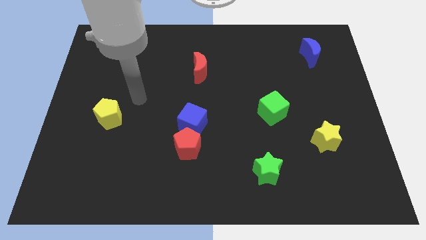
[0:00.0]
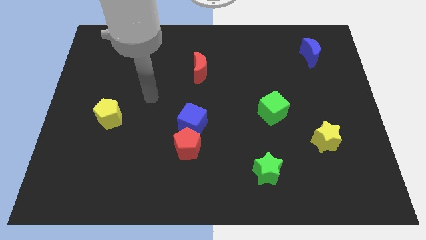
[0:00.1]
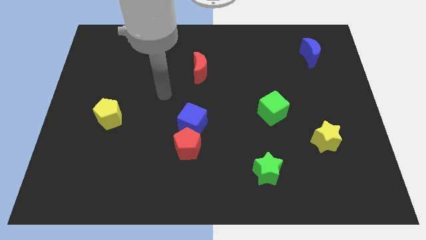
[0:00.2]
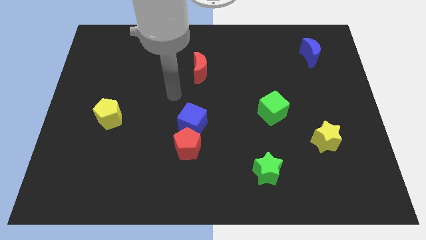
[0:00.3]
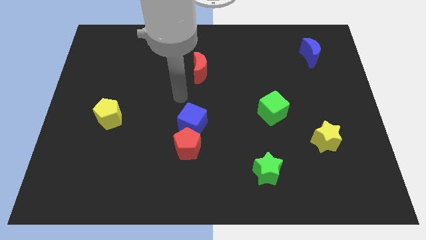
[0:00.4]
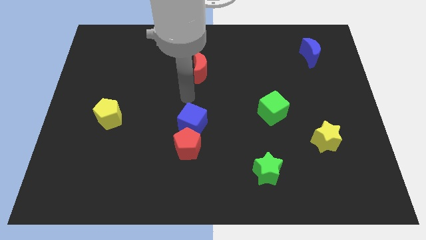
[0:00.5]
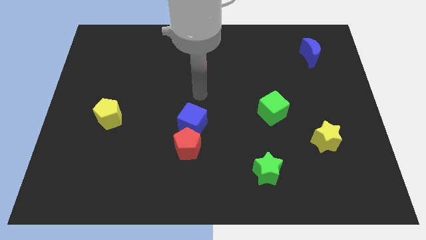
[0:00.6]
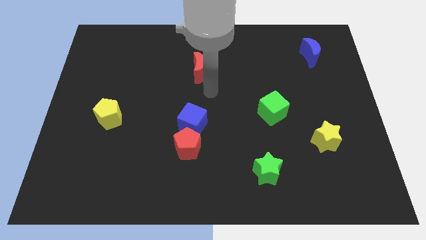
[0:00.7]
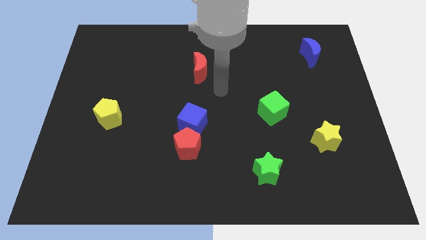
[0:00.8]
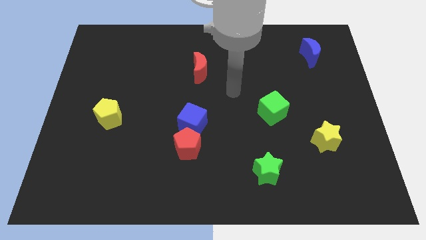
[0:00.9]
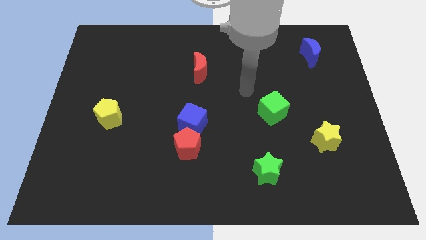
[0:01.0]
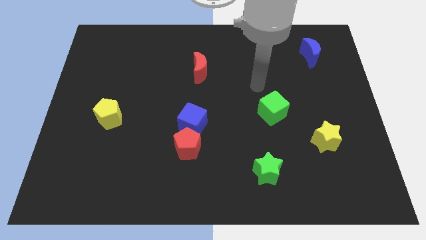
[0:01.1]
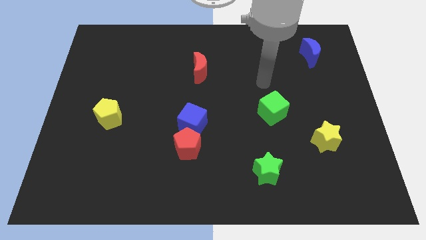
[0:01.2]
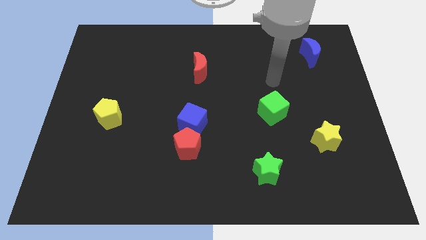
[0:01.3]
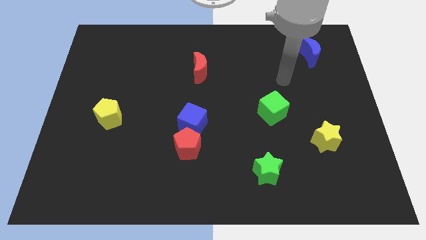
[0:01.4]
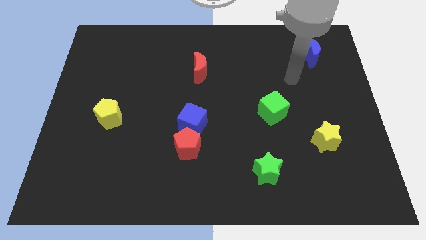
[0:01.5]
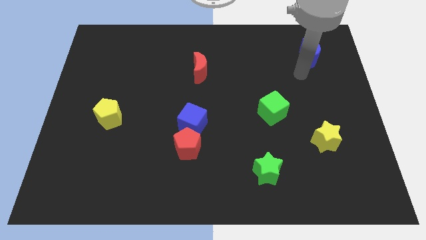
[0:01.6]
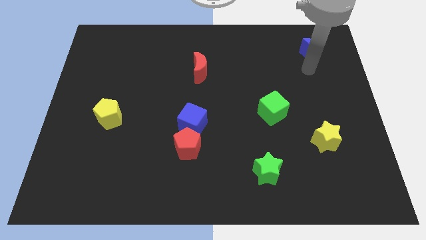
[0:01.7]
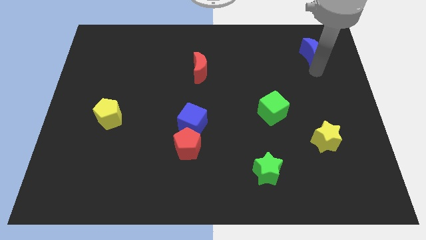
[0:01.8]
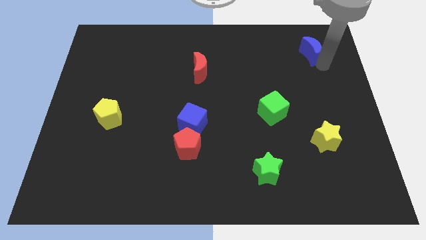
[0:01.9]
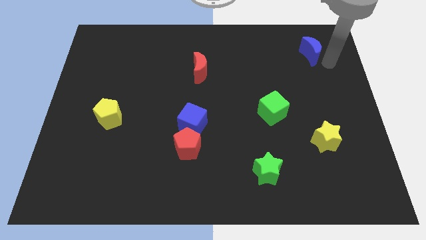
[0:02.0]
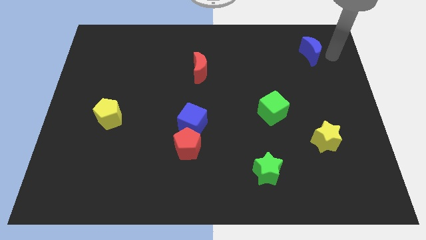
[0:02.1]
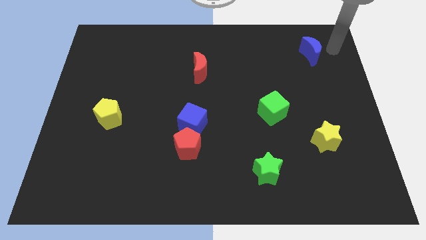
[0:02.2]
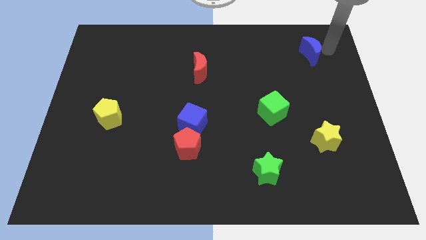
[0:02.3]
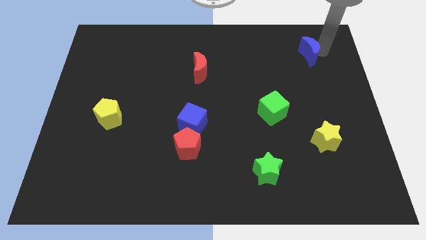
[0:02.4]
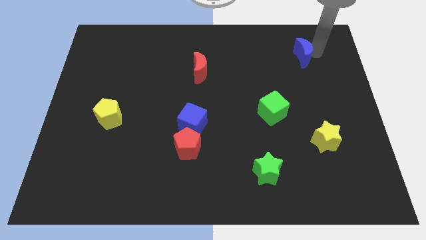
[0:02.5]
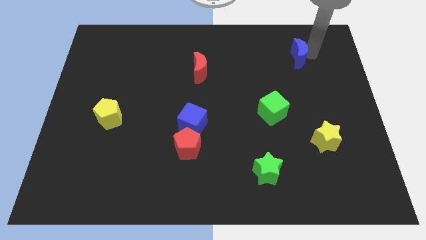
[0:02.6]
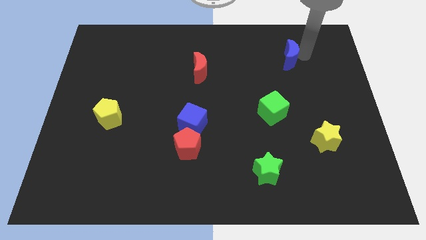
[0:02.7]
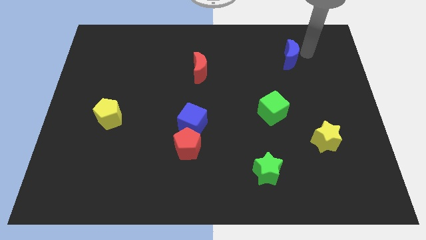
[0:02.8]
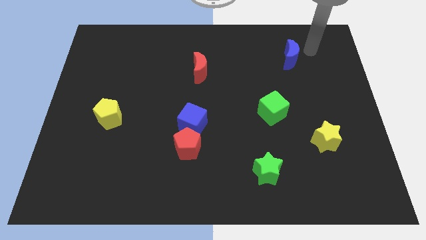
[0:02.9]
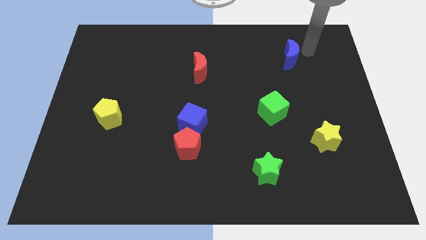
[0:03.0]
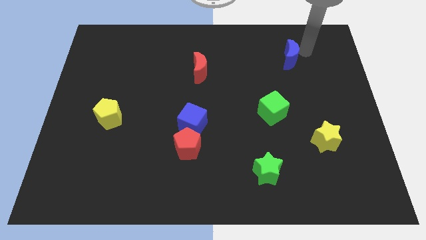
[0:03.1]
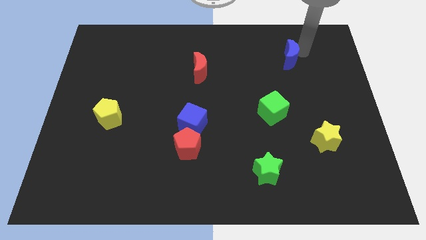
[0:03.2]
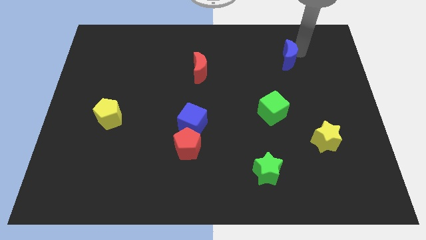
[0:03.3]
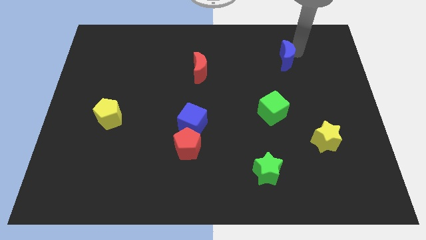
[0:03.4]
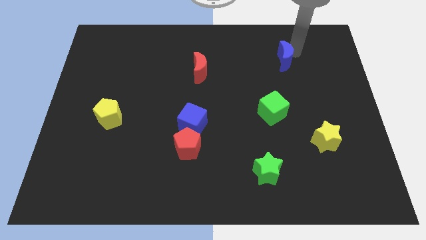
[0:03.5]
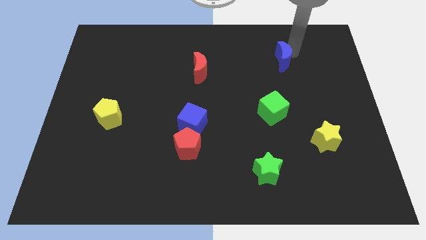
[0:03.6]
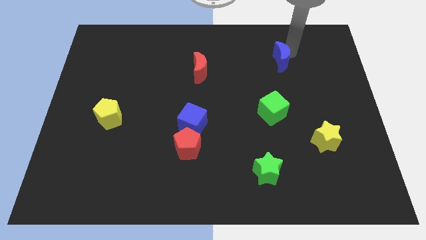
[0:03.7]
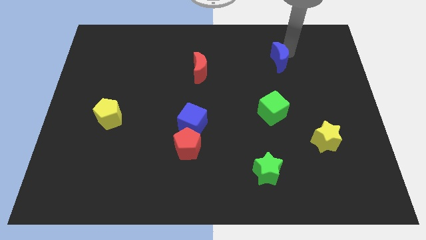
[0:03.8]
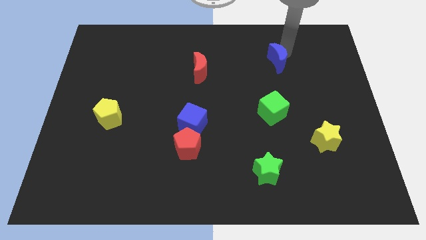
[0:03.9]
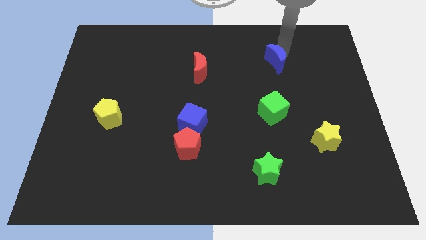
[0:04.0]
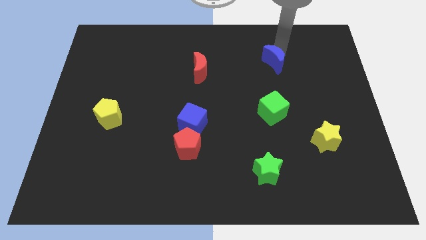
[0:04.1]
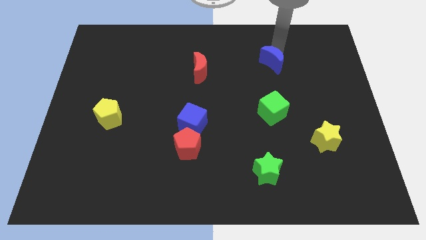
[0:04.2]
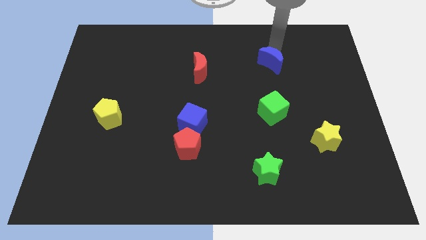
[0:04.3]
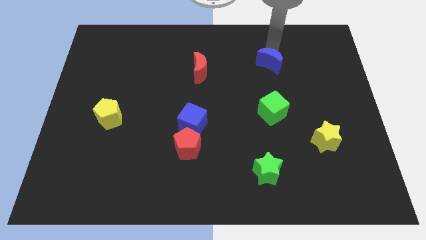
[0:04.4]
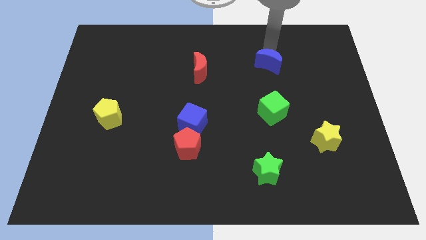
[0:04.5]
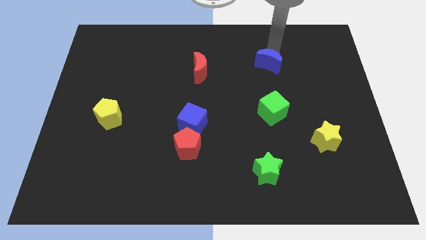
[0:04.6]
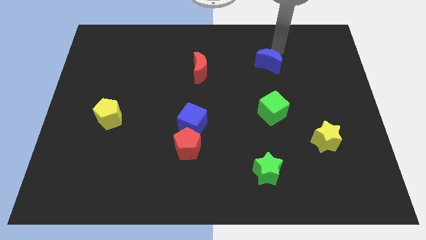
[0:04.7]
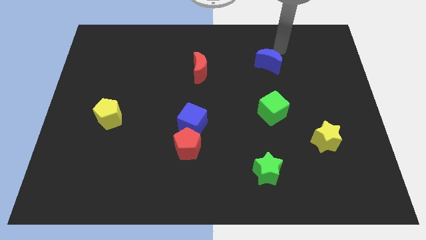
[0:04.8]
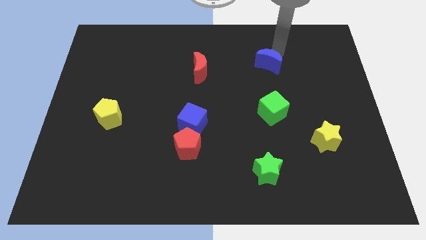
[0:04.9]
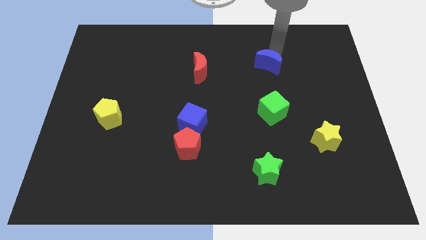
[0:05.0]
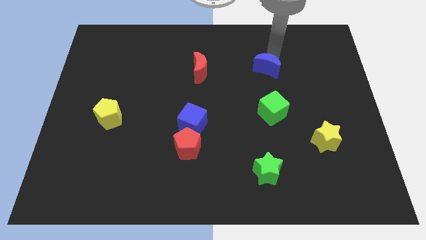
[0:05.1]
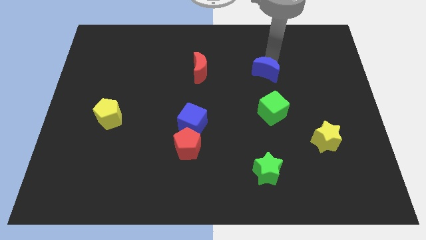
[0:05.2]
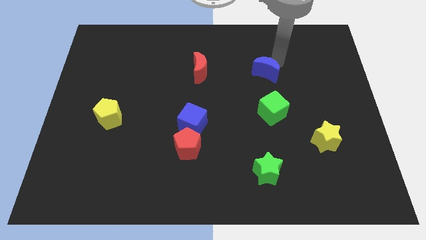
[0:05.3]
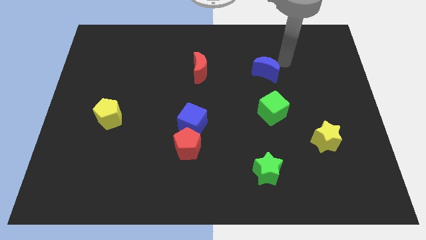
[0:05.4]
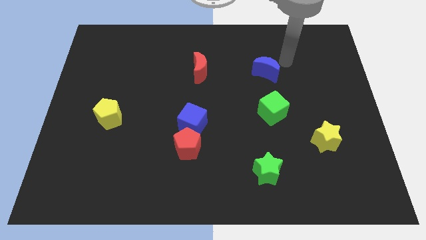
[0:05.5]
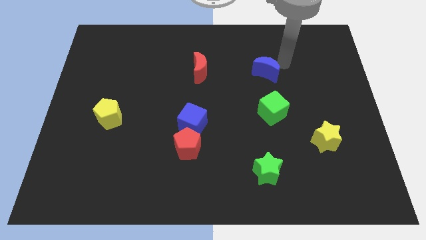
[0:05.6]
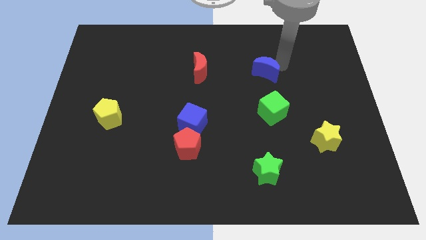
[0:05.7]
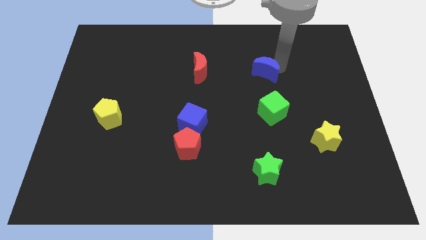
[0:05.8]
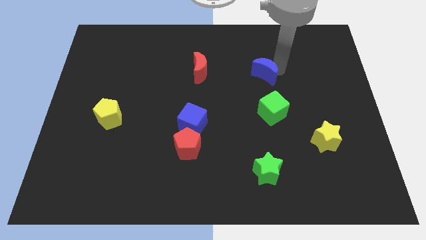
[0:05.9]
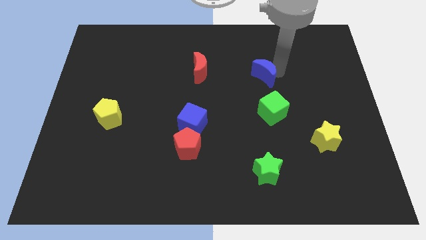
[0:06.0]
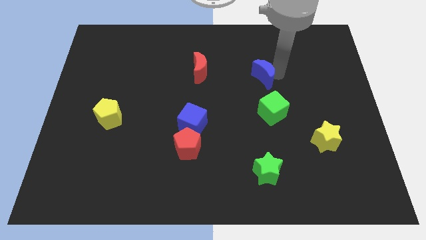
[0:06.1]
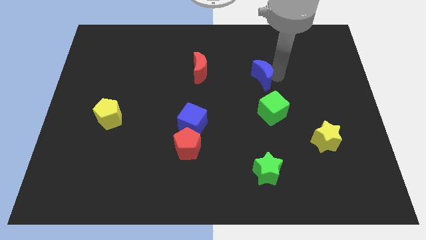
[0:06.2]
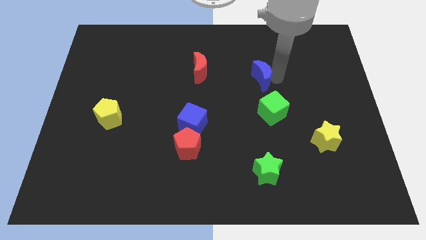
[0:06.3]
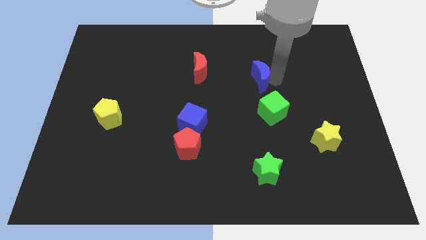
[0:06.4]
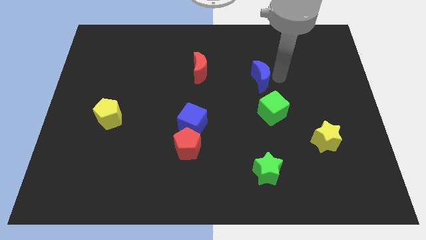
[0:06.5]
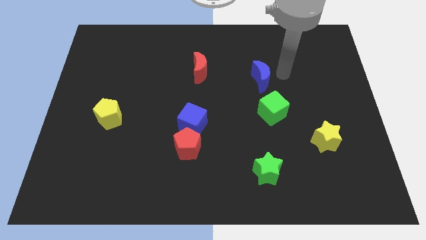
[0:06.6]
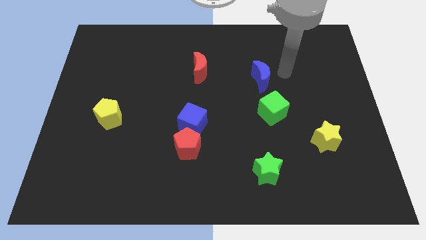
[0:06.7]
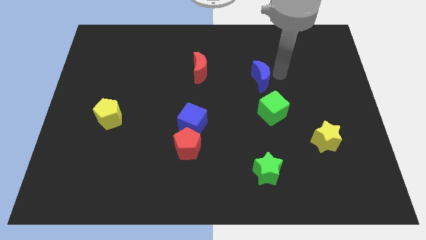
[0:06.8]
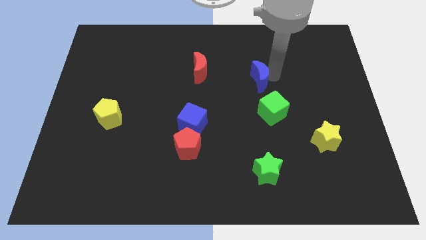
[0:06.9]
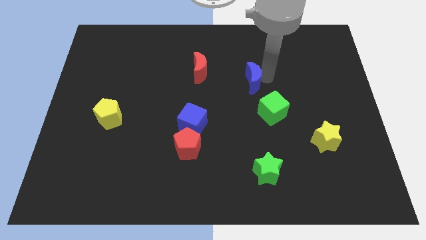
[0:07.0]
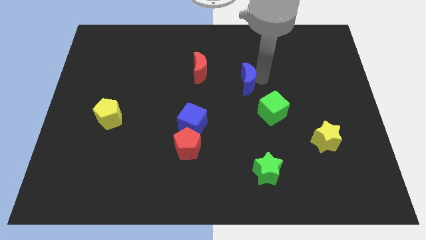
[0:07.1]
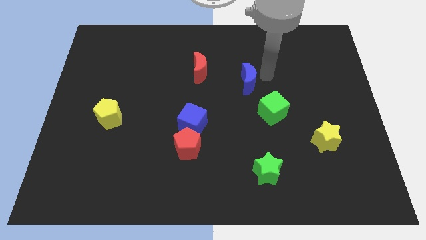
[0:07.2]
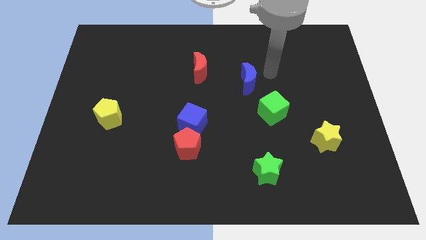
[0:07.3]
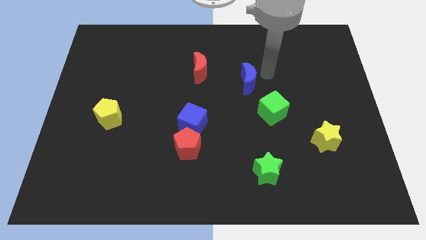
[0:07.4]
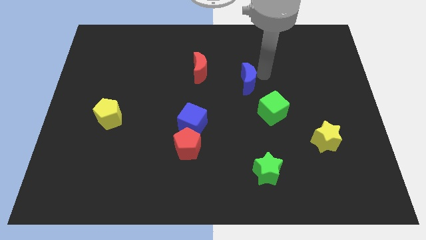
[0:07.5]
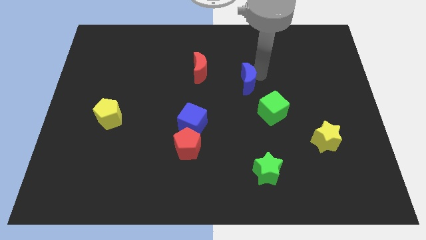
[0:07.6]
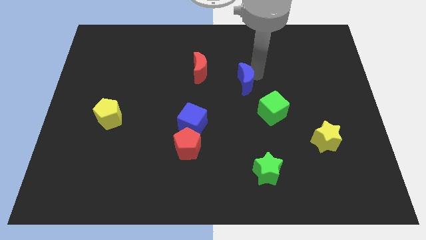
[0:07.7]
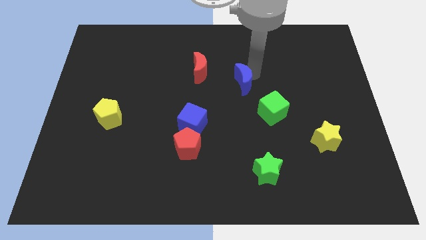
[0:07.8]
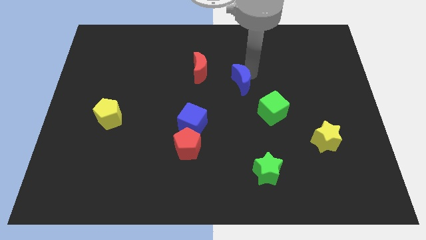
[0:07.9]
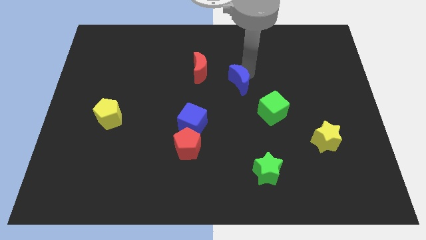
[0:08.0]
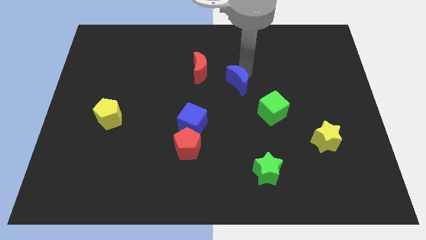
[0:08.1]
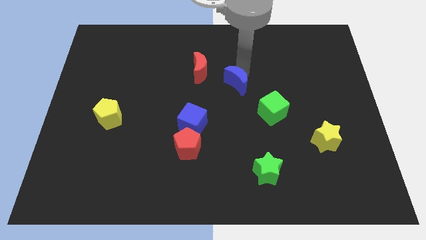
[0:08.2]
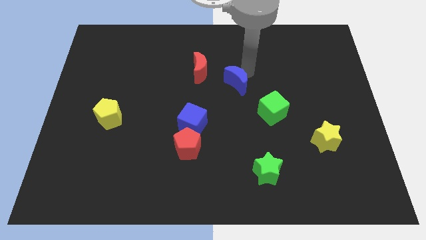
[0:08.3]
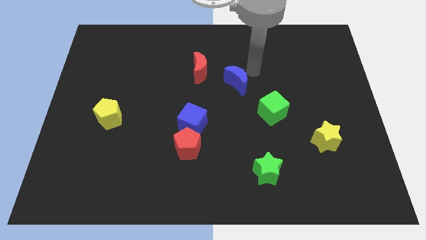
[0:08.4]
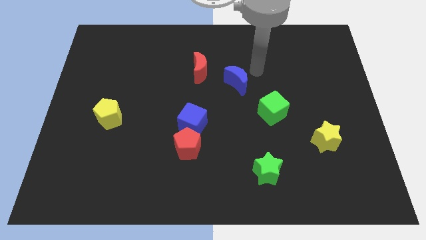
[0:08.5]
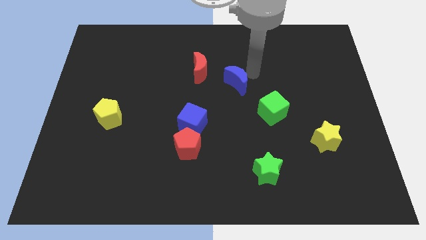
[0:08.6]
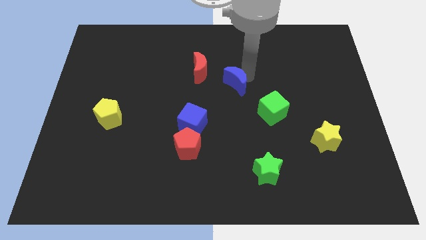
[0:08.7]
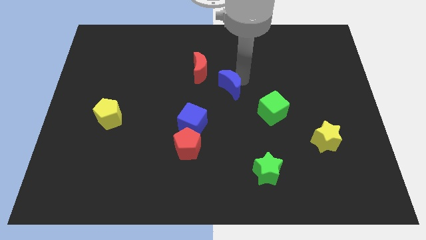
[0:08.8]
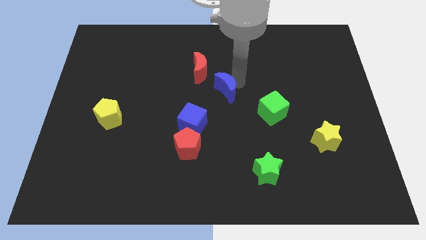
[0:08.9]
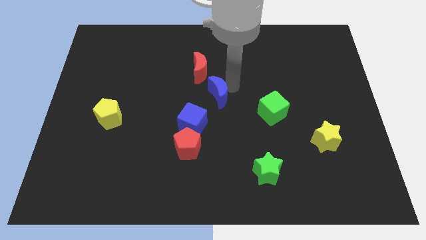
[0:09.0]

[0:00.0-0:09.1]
push the blue moon to the bottom side of the red moon
